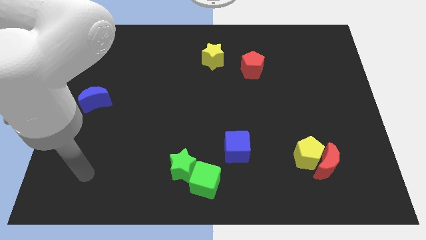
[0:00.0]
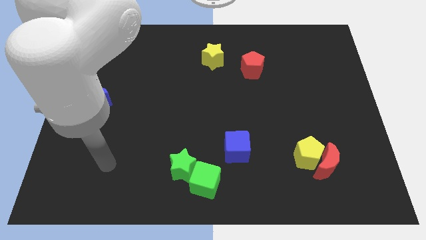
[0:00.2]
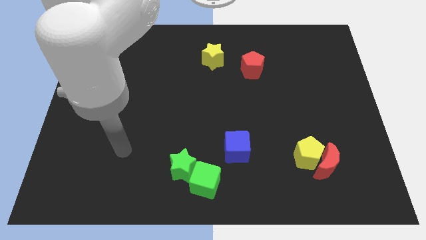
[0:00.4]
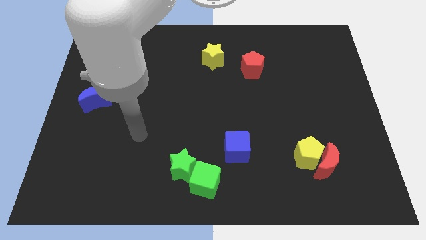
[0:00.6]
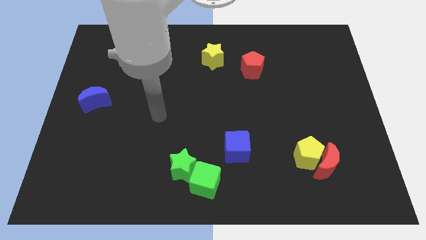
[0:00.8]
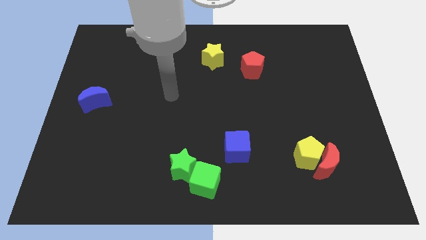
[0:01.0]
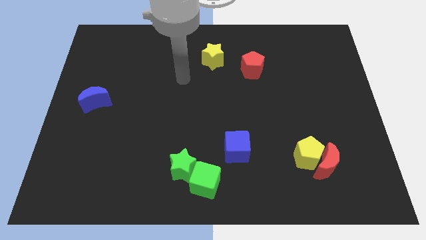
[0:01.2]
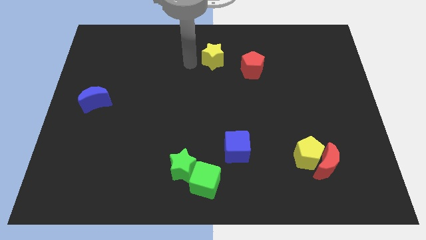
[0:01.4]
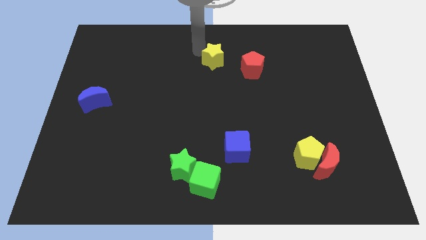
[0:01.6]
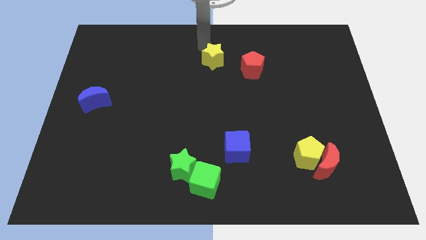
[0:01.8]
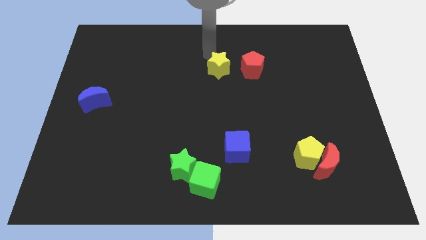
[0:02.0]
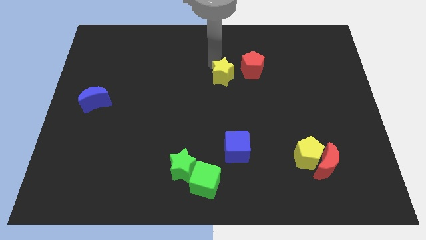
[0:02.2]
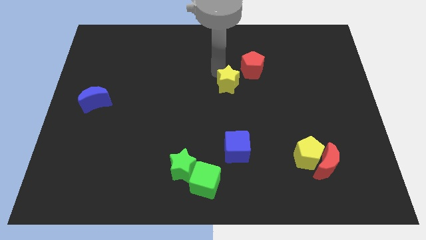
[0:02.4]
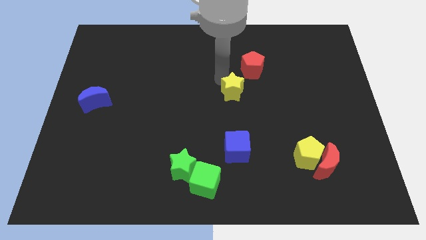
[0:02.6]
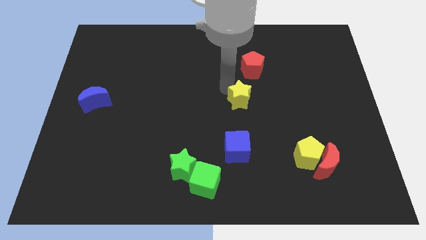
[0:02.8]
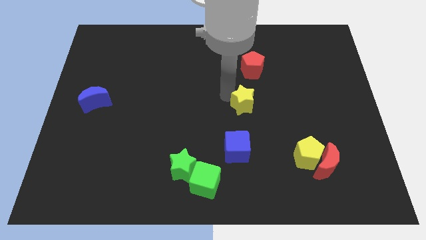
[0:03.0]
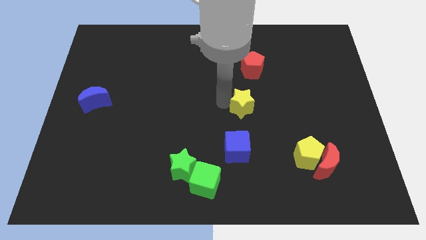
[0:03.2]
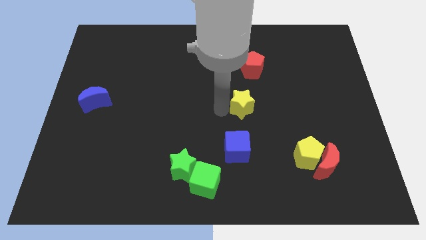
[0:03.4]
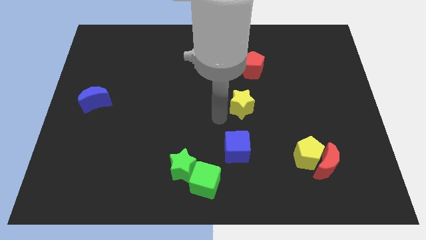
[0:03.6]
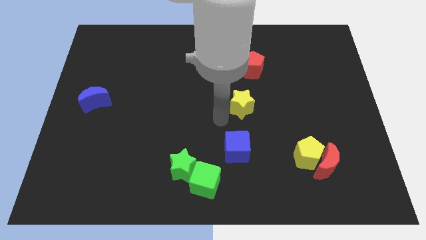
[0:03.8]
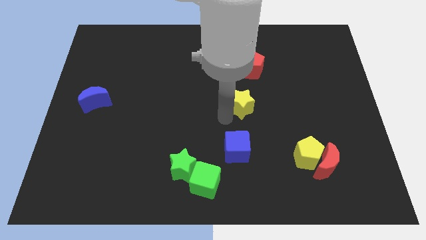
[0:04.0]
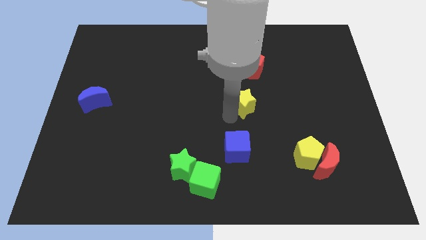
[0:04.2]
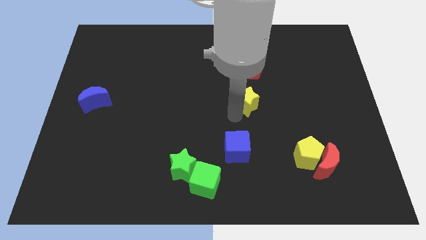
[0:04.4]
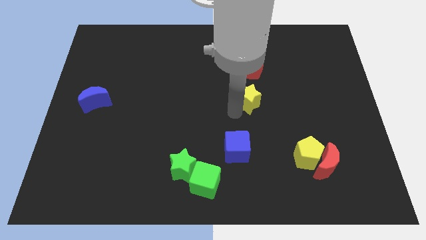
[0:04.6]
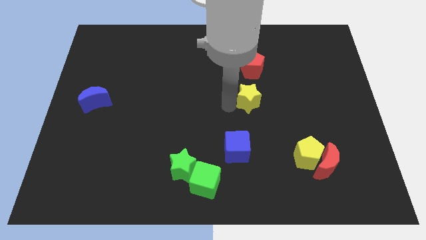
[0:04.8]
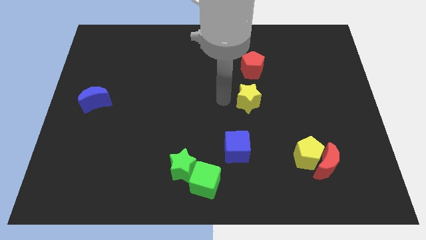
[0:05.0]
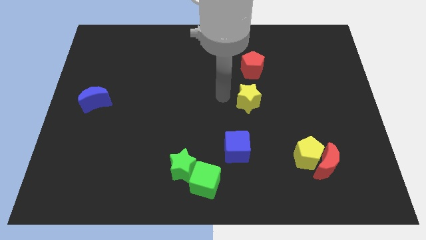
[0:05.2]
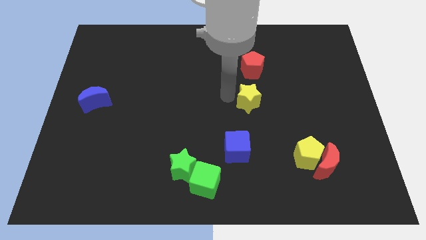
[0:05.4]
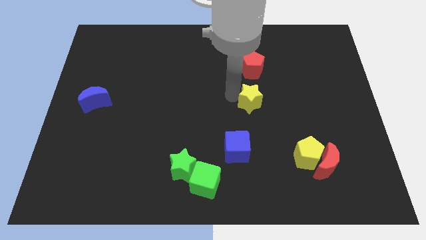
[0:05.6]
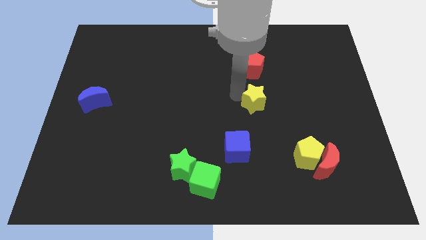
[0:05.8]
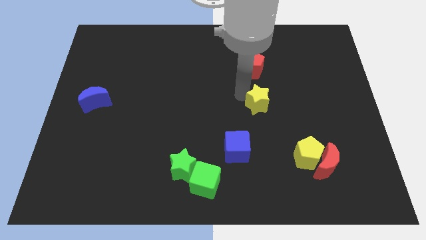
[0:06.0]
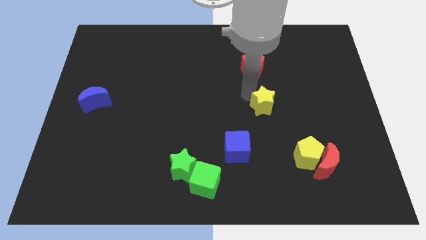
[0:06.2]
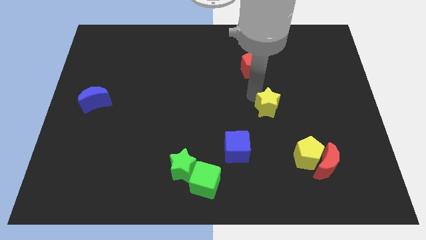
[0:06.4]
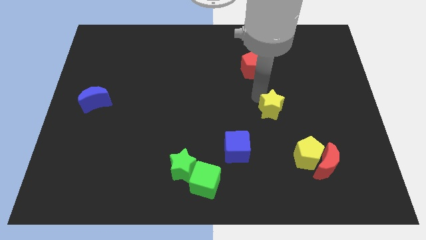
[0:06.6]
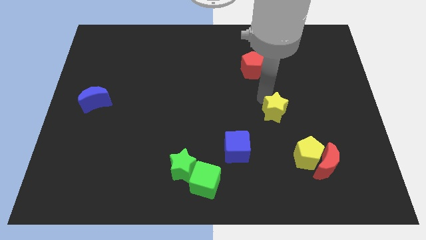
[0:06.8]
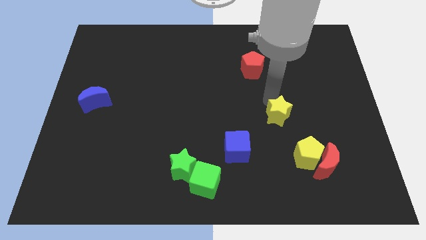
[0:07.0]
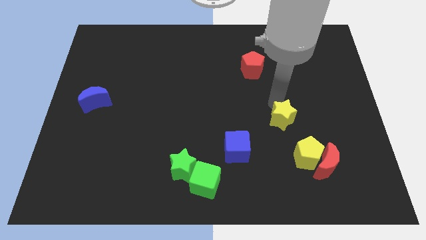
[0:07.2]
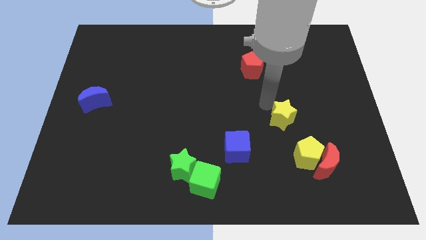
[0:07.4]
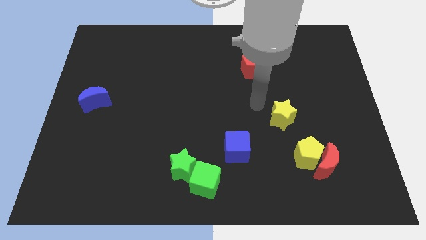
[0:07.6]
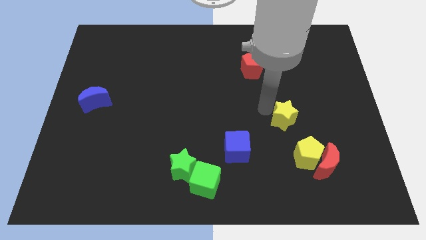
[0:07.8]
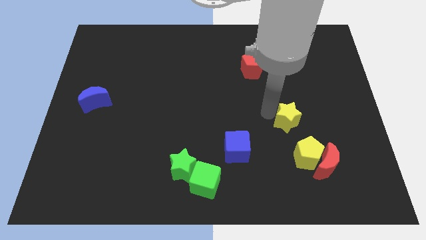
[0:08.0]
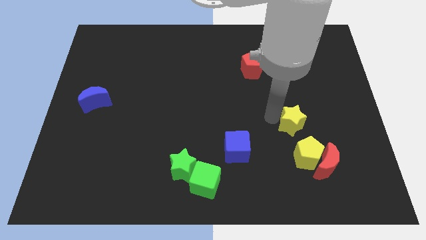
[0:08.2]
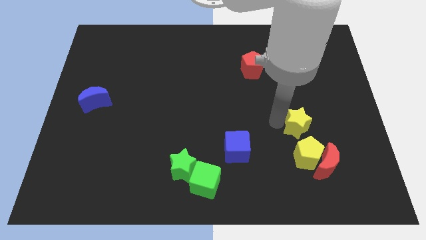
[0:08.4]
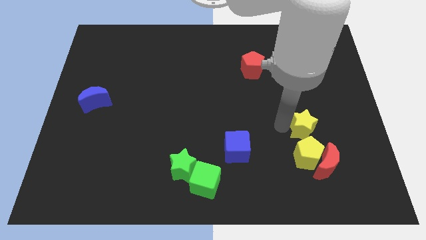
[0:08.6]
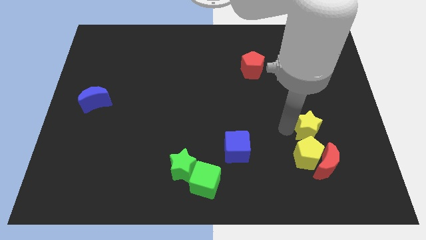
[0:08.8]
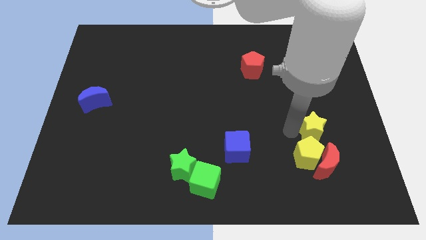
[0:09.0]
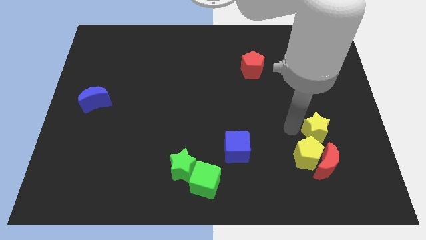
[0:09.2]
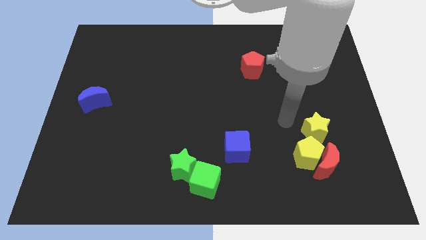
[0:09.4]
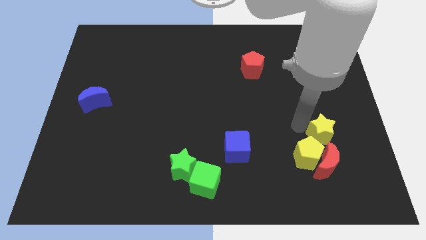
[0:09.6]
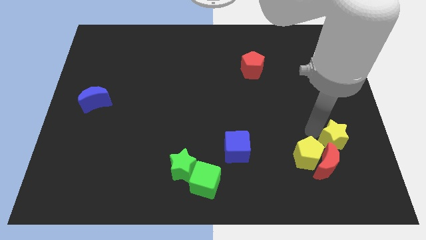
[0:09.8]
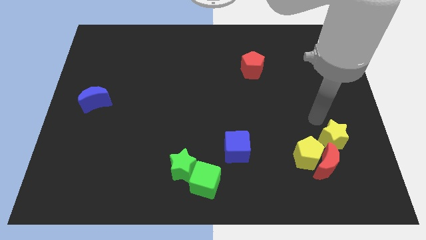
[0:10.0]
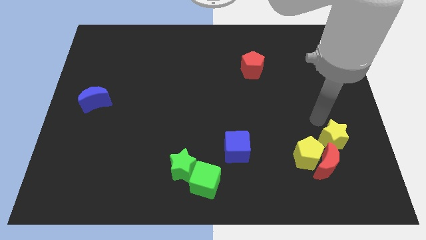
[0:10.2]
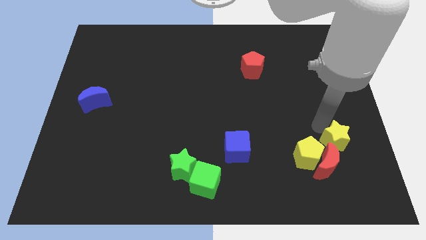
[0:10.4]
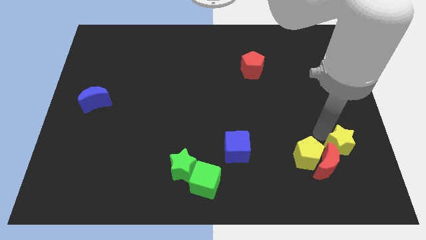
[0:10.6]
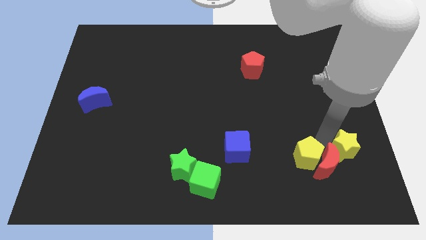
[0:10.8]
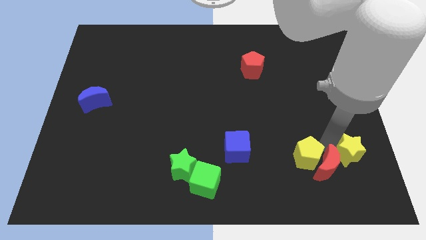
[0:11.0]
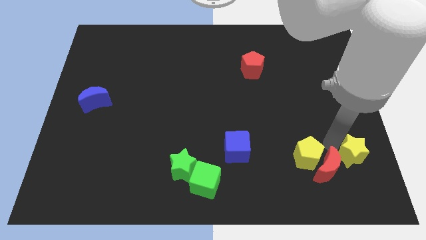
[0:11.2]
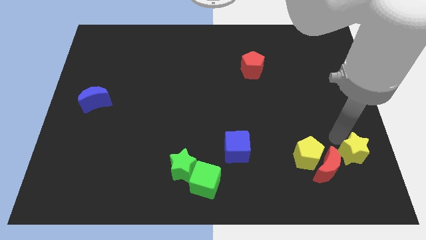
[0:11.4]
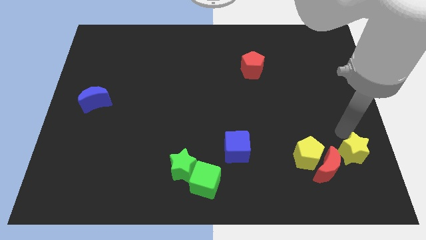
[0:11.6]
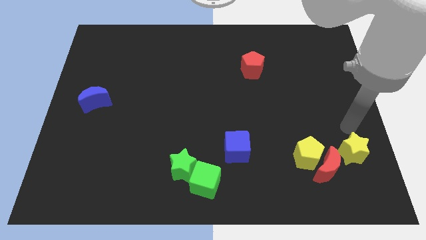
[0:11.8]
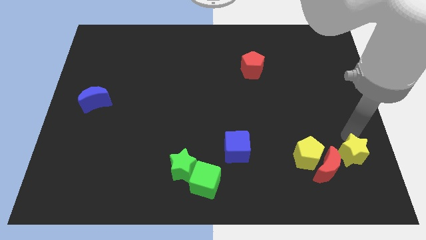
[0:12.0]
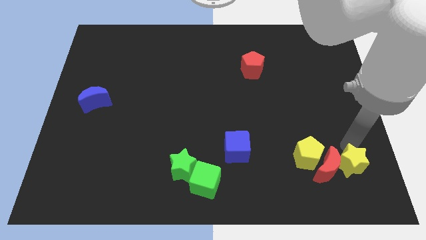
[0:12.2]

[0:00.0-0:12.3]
push the yellow star to the bottom right of the yellow pentagon

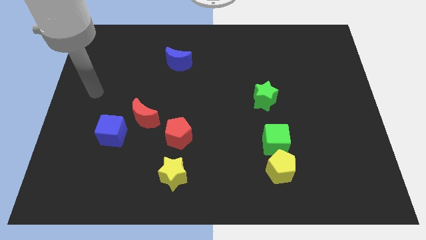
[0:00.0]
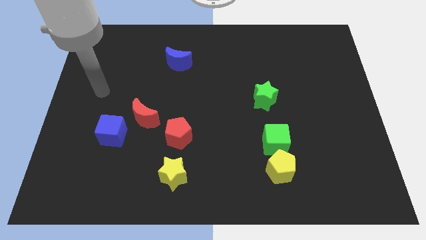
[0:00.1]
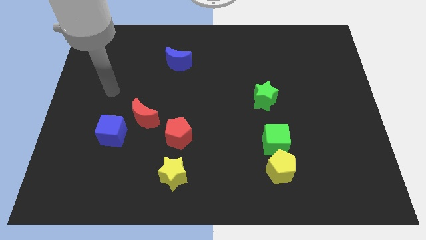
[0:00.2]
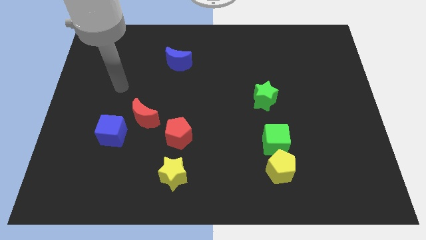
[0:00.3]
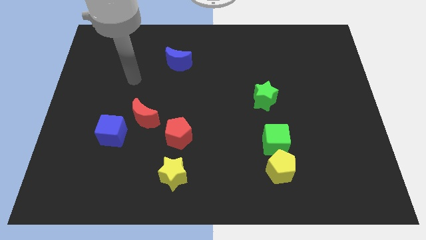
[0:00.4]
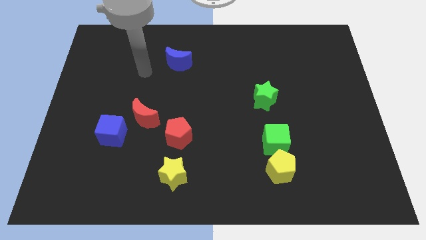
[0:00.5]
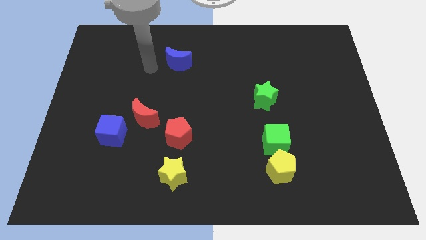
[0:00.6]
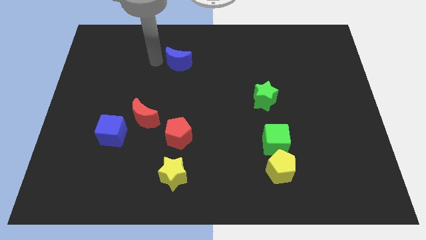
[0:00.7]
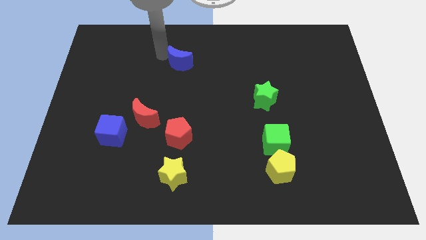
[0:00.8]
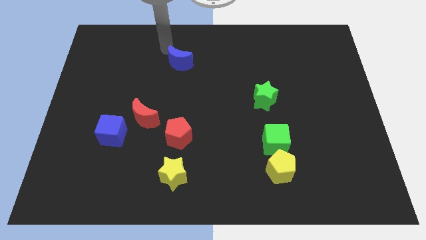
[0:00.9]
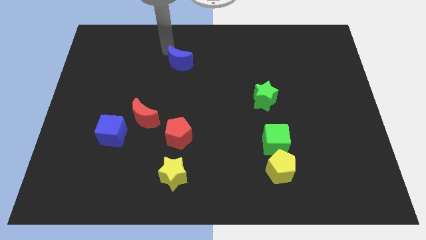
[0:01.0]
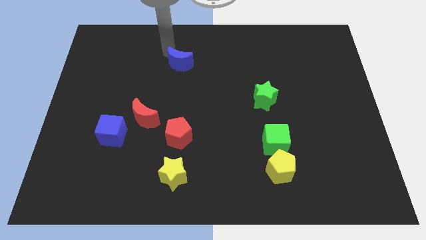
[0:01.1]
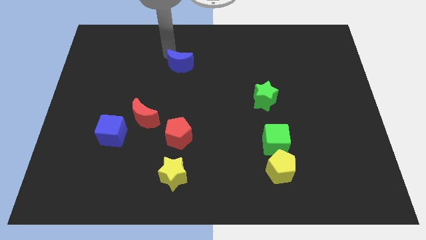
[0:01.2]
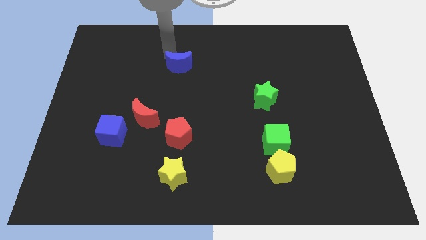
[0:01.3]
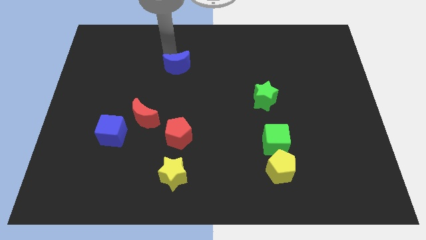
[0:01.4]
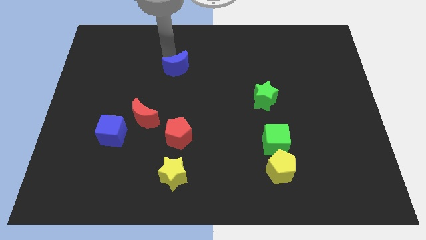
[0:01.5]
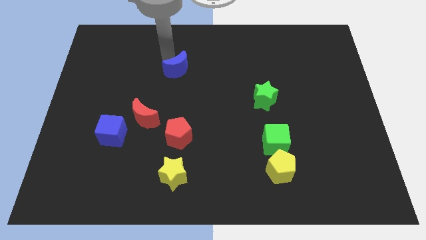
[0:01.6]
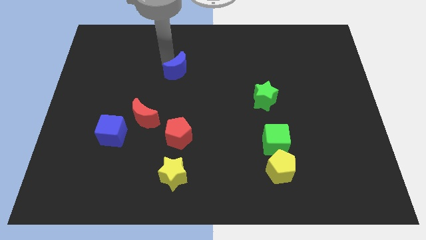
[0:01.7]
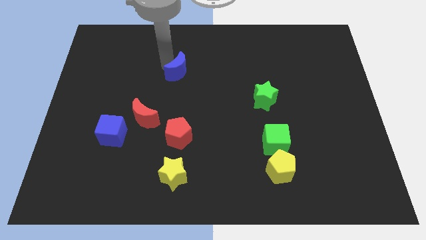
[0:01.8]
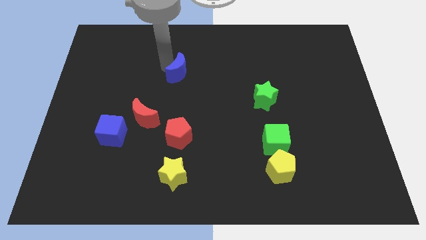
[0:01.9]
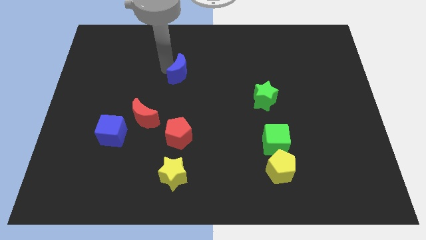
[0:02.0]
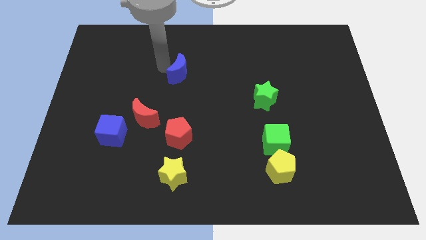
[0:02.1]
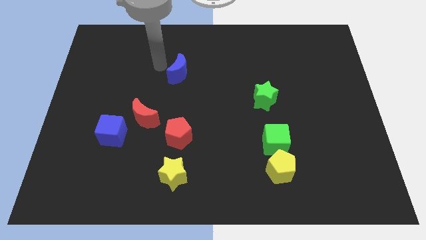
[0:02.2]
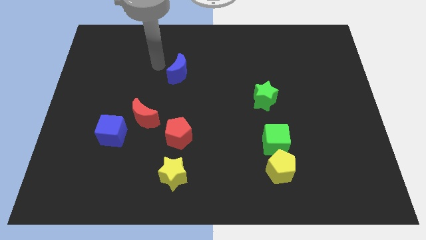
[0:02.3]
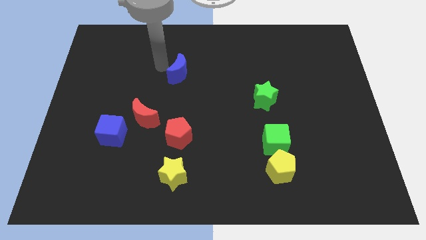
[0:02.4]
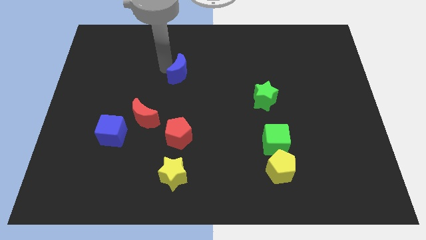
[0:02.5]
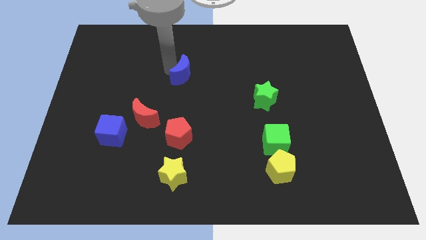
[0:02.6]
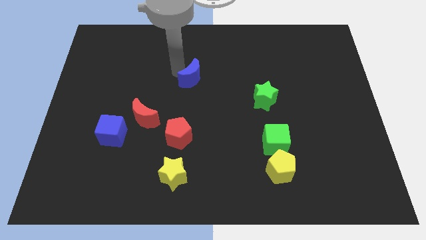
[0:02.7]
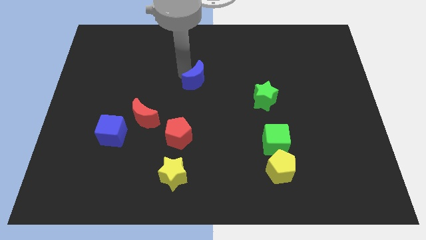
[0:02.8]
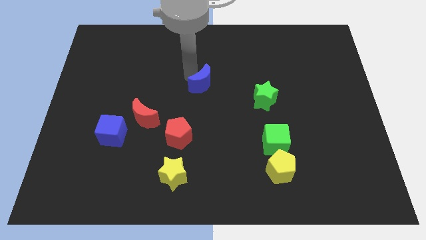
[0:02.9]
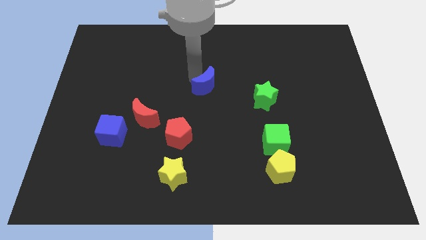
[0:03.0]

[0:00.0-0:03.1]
put the blue moon just left of the green star
